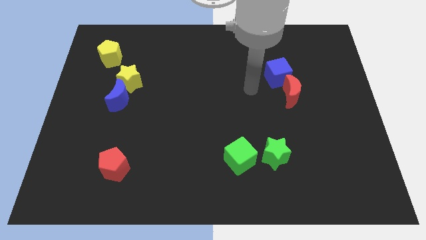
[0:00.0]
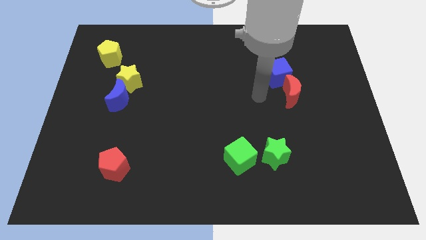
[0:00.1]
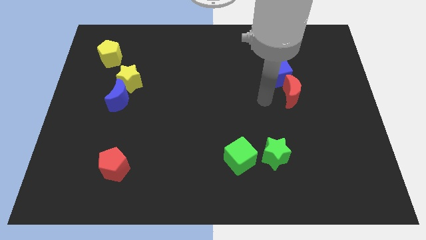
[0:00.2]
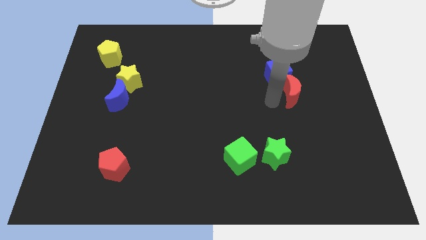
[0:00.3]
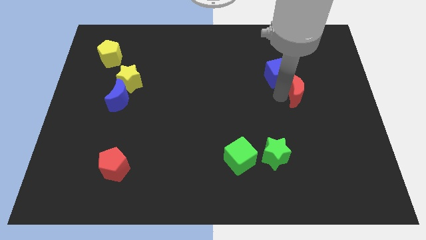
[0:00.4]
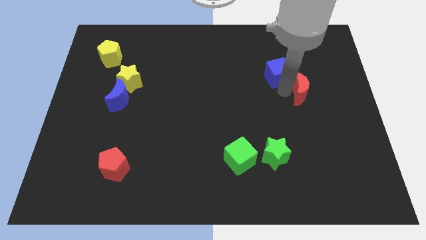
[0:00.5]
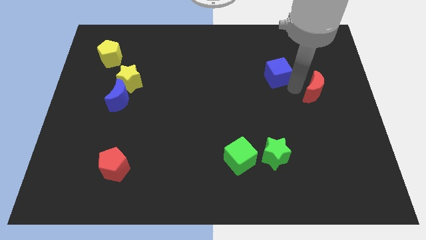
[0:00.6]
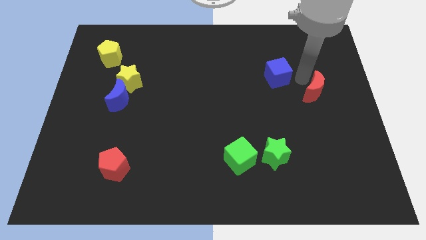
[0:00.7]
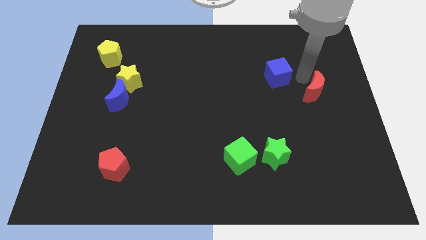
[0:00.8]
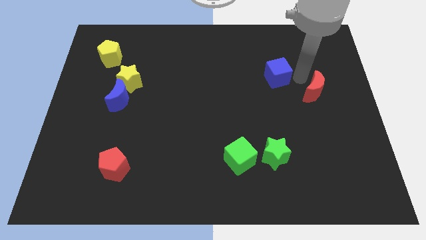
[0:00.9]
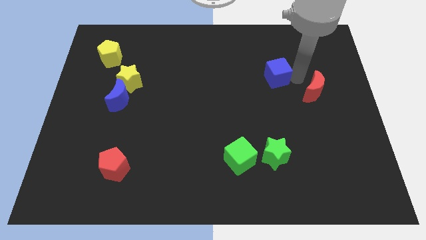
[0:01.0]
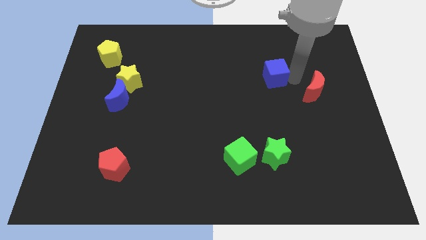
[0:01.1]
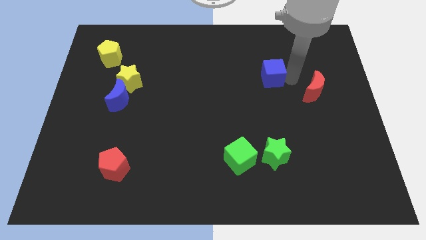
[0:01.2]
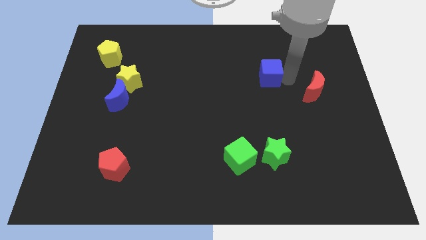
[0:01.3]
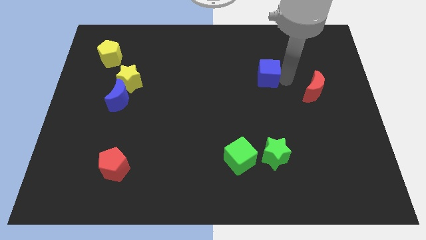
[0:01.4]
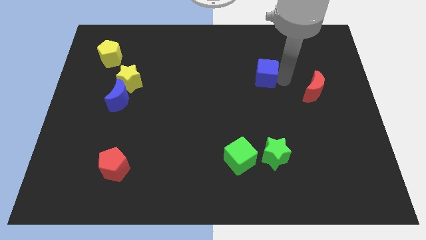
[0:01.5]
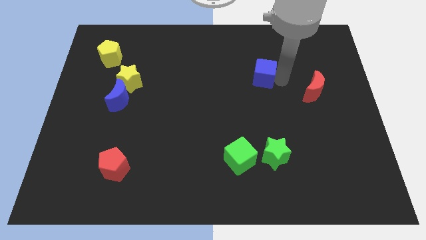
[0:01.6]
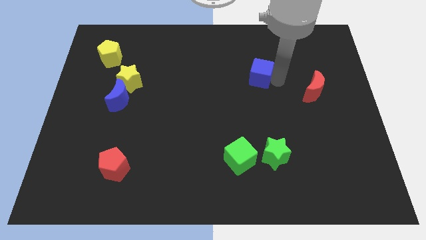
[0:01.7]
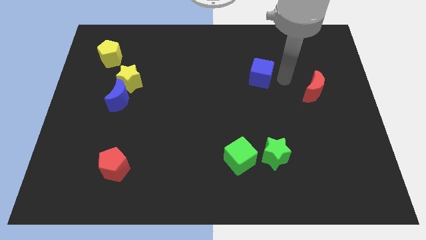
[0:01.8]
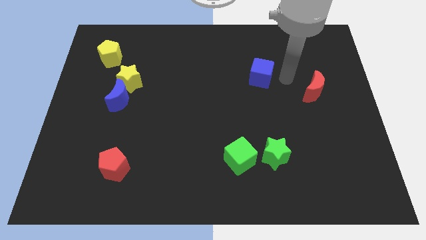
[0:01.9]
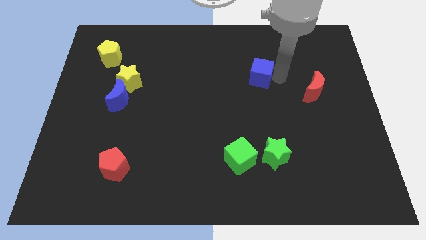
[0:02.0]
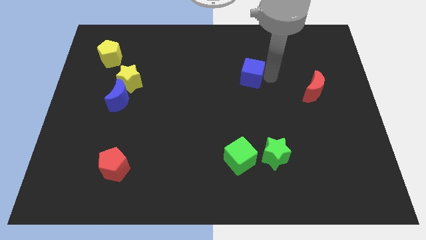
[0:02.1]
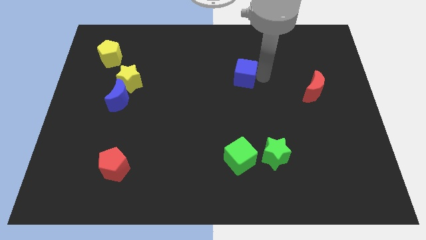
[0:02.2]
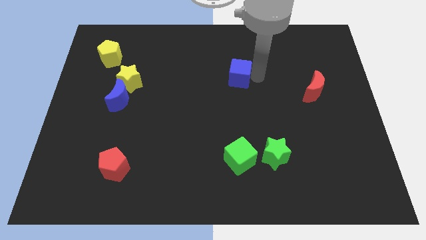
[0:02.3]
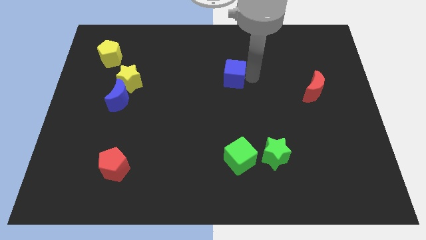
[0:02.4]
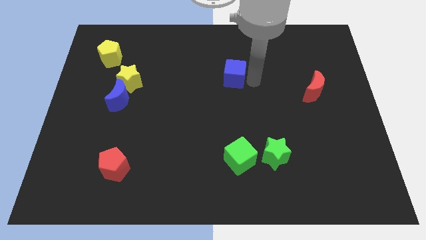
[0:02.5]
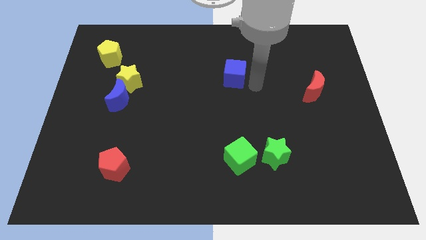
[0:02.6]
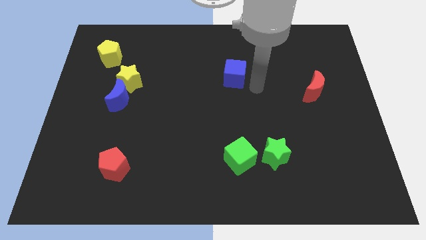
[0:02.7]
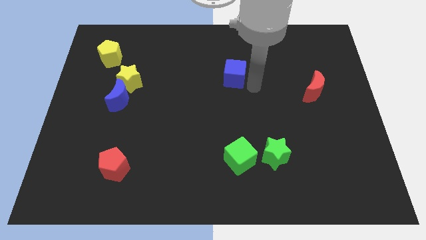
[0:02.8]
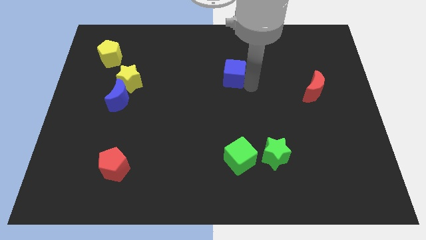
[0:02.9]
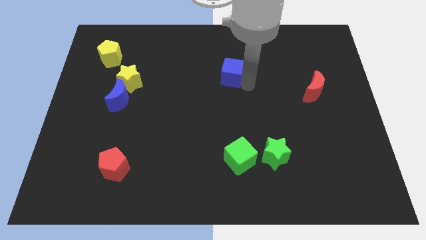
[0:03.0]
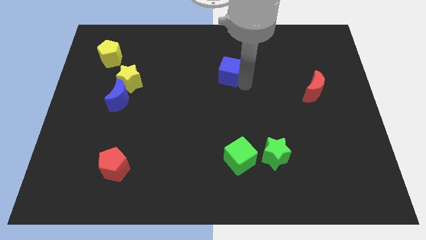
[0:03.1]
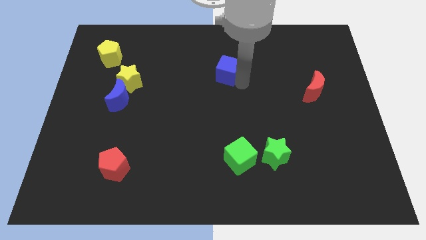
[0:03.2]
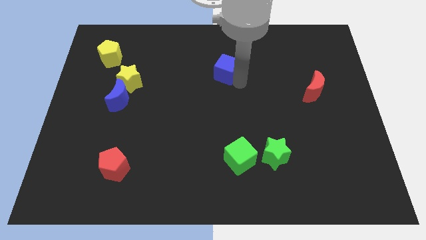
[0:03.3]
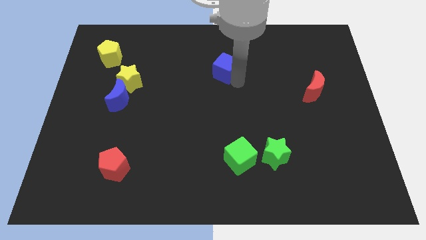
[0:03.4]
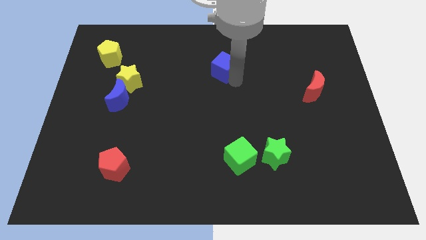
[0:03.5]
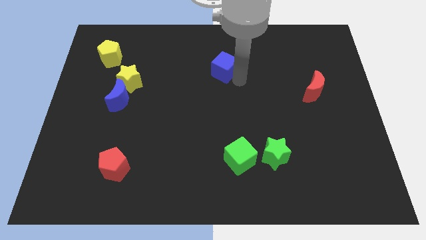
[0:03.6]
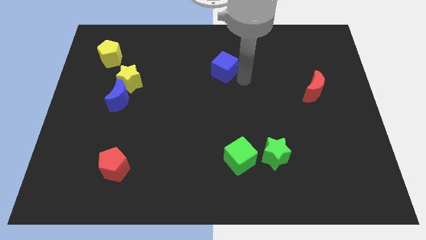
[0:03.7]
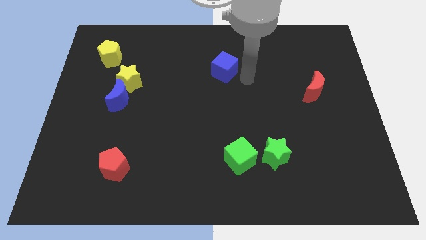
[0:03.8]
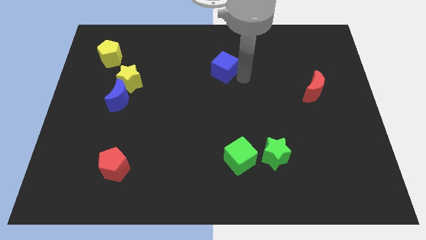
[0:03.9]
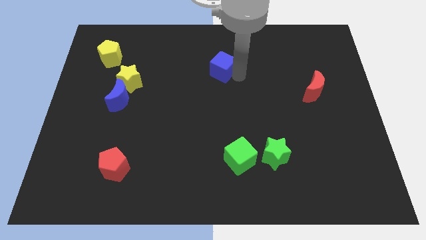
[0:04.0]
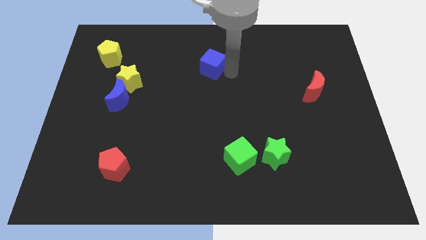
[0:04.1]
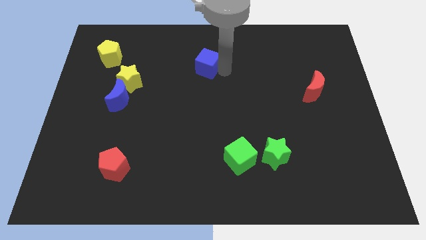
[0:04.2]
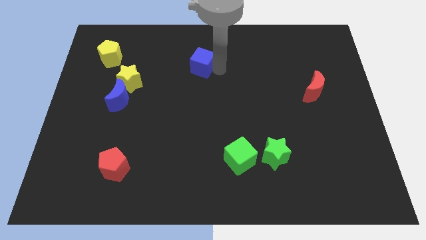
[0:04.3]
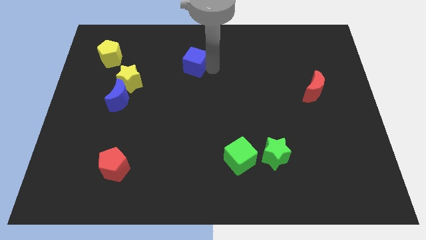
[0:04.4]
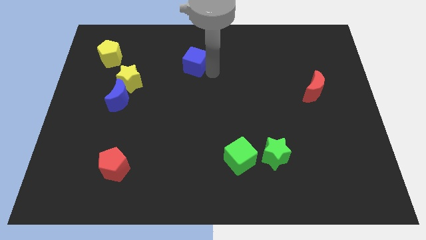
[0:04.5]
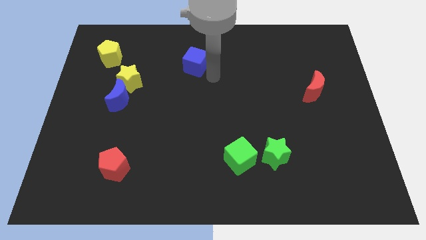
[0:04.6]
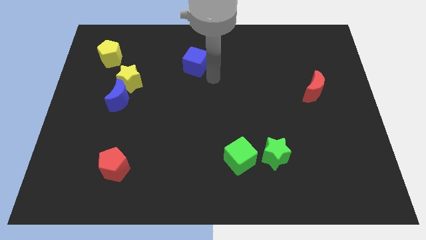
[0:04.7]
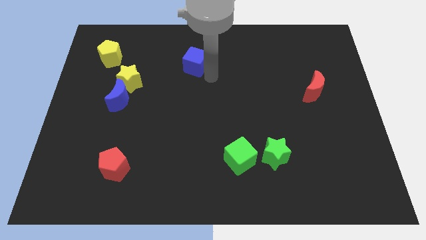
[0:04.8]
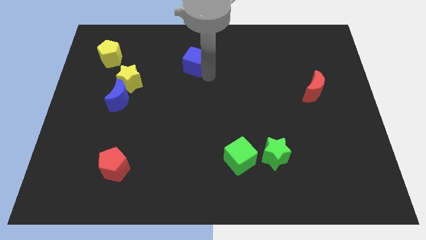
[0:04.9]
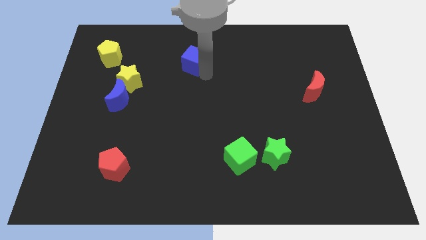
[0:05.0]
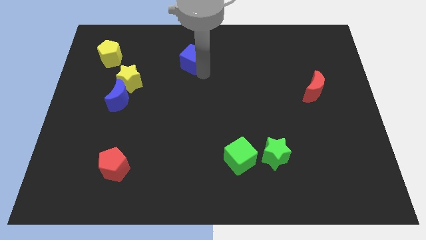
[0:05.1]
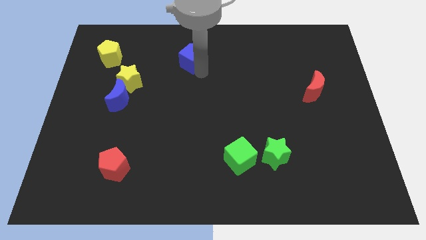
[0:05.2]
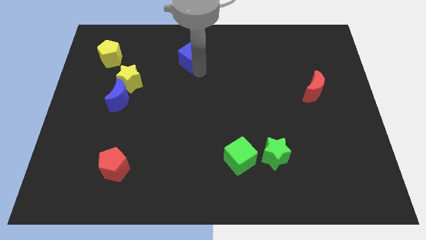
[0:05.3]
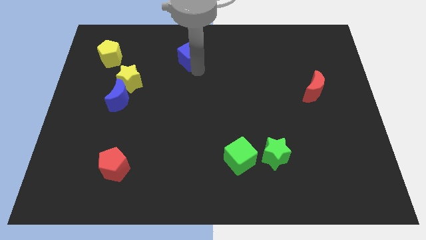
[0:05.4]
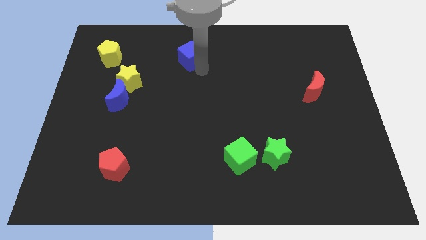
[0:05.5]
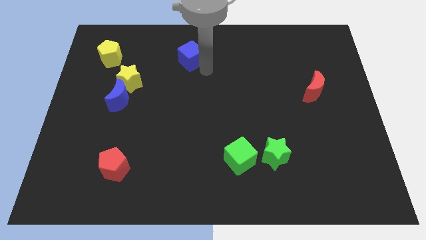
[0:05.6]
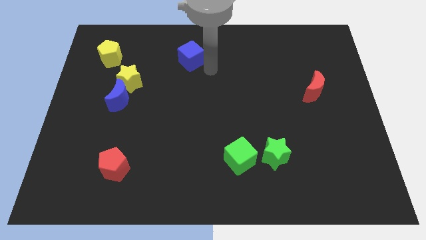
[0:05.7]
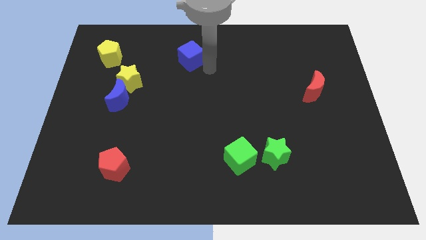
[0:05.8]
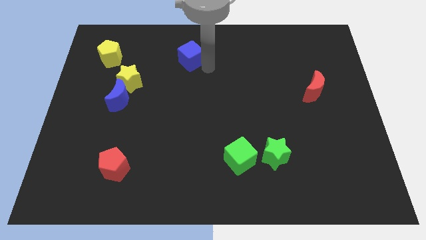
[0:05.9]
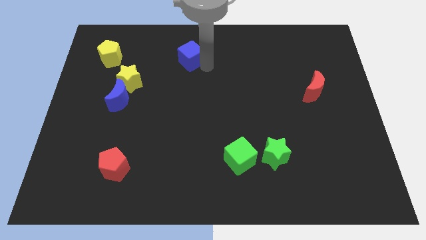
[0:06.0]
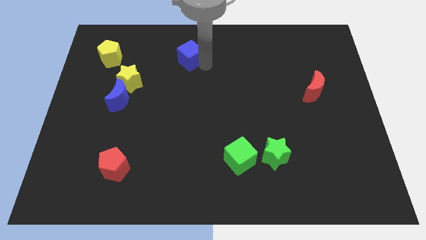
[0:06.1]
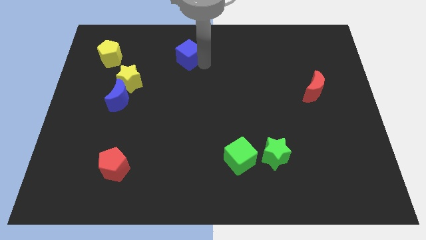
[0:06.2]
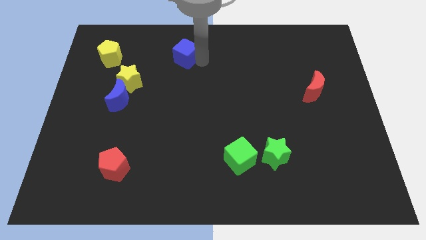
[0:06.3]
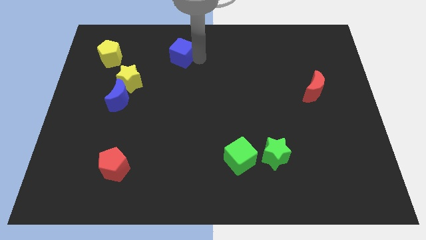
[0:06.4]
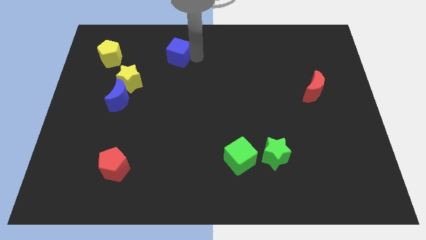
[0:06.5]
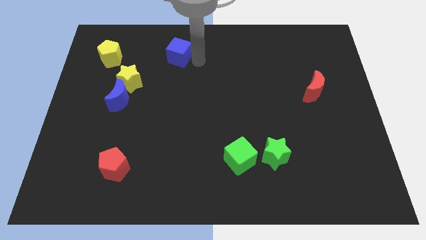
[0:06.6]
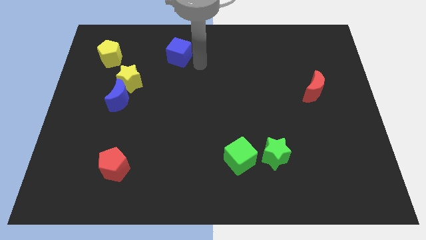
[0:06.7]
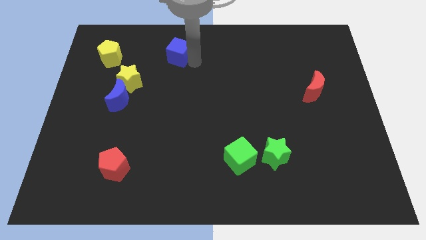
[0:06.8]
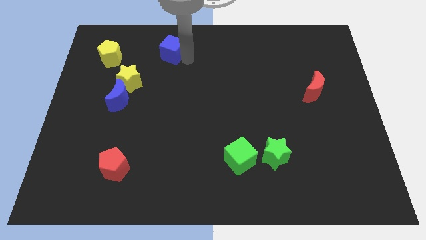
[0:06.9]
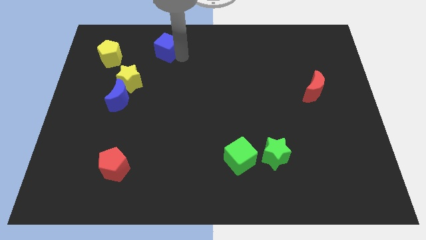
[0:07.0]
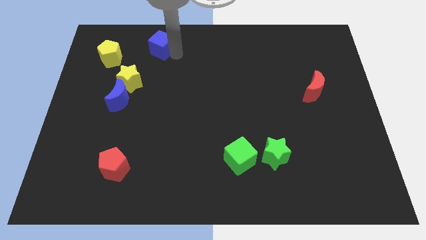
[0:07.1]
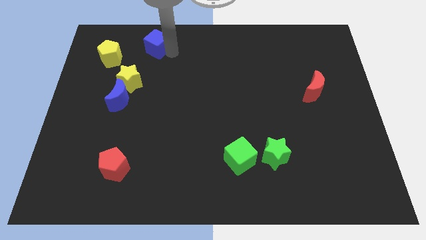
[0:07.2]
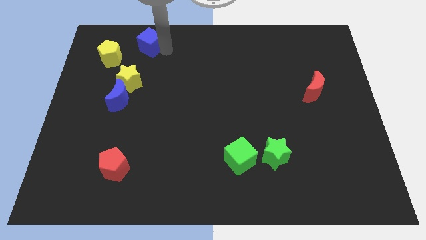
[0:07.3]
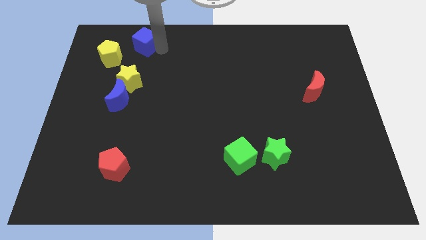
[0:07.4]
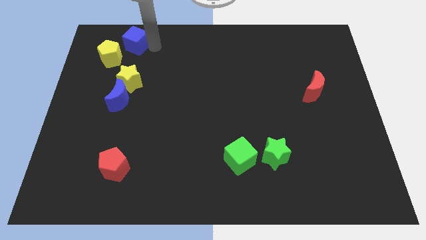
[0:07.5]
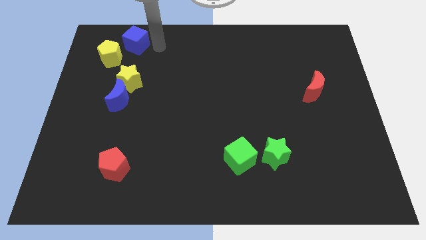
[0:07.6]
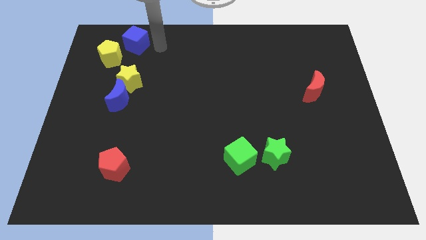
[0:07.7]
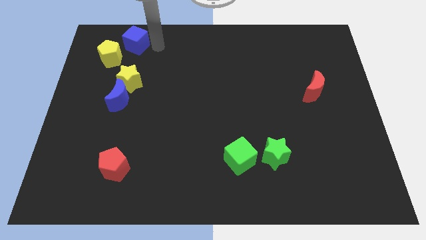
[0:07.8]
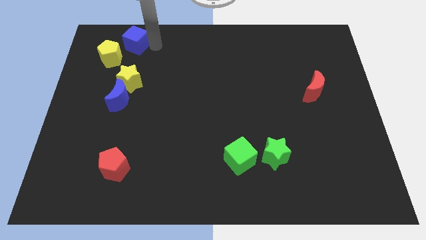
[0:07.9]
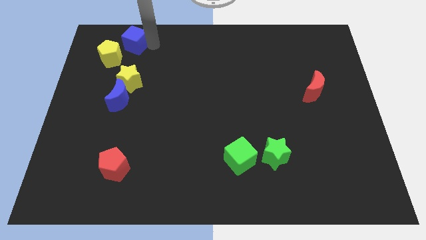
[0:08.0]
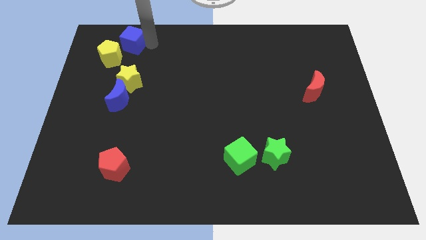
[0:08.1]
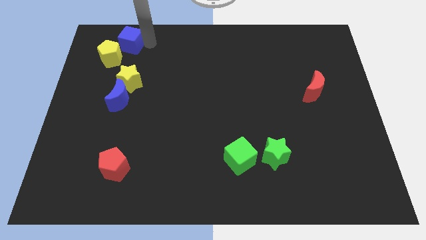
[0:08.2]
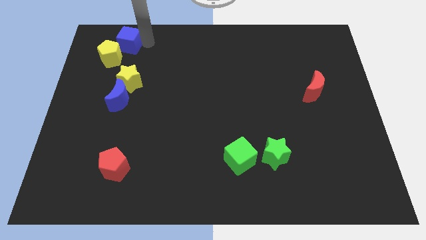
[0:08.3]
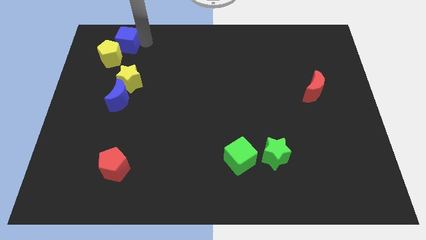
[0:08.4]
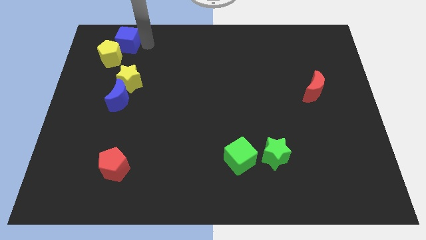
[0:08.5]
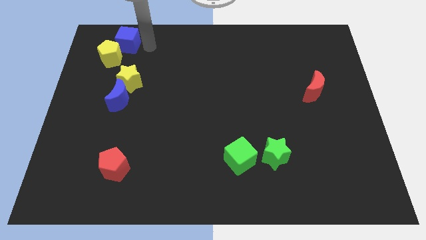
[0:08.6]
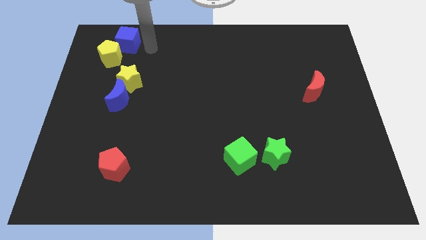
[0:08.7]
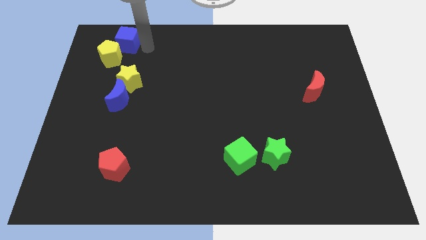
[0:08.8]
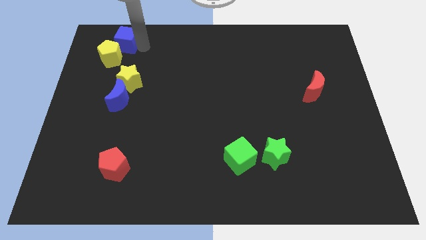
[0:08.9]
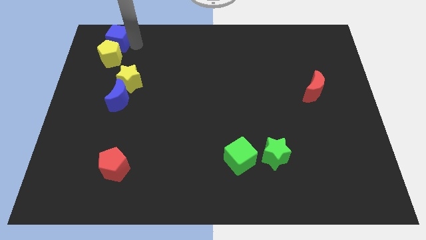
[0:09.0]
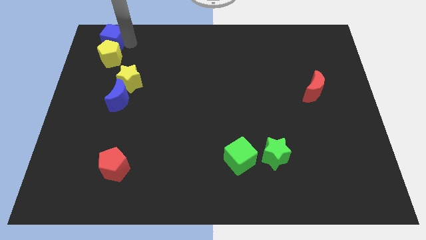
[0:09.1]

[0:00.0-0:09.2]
push the blue cube to the top left of the board
